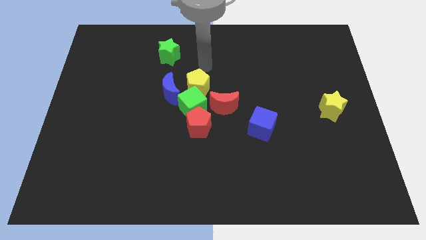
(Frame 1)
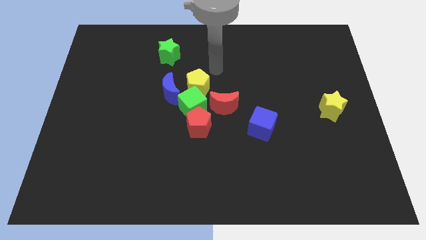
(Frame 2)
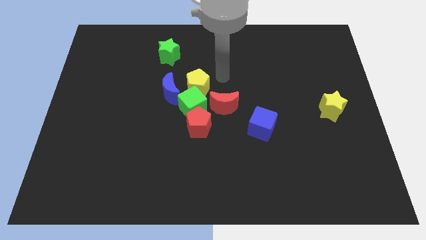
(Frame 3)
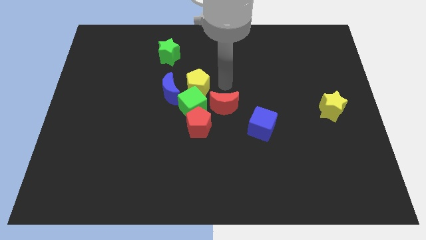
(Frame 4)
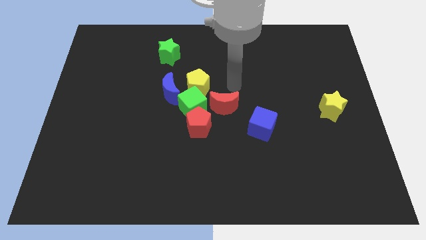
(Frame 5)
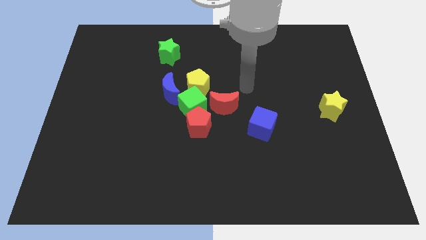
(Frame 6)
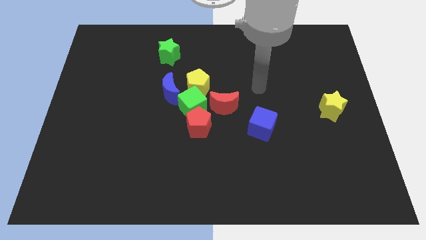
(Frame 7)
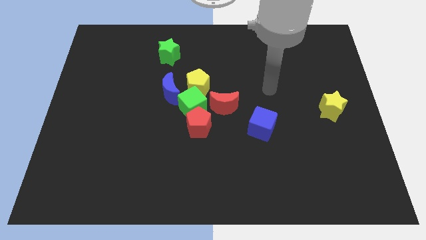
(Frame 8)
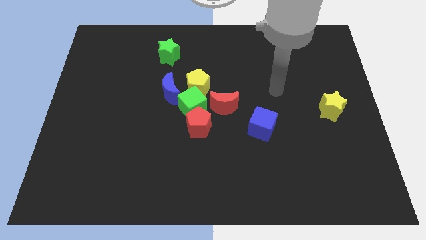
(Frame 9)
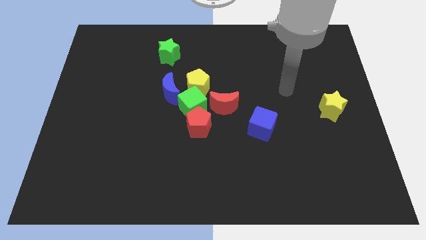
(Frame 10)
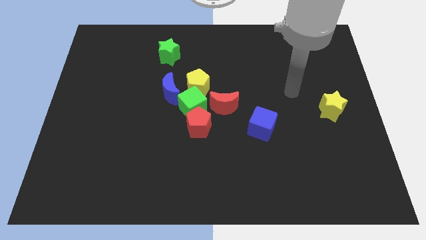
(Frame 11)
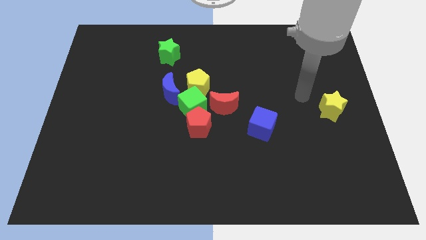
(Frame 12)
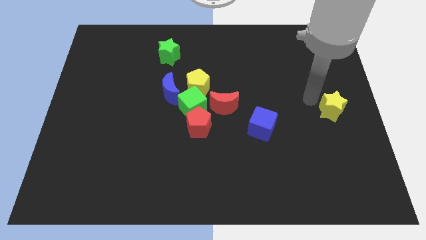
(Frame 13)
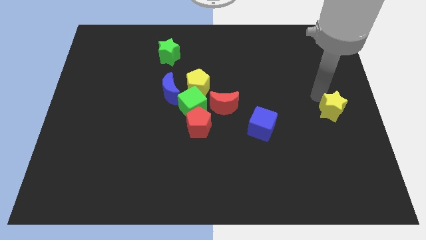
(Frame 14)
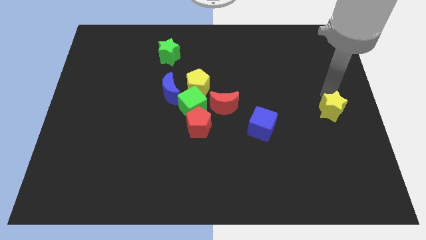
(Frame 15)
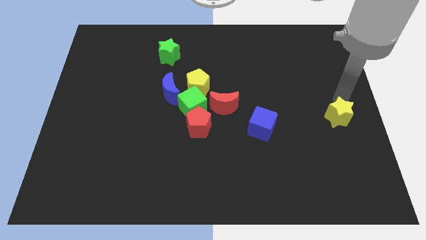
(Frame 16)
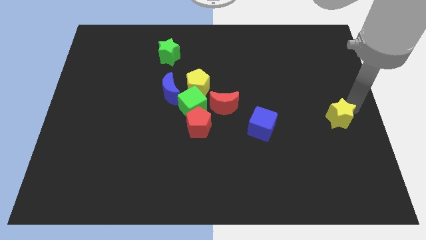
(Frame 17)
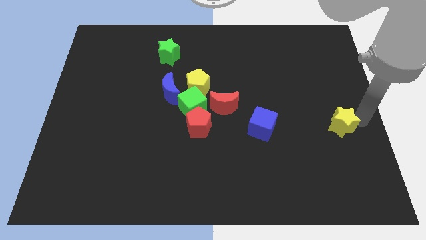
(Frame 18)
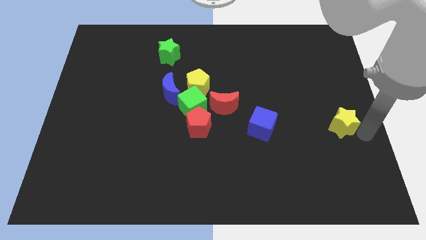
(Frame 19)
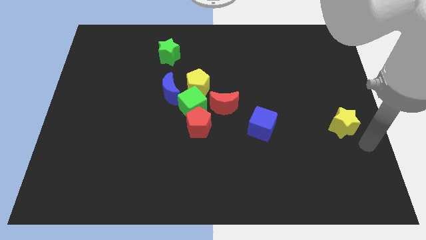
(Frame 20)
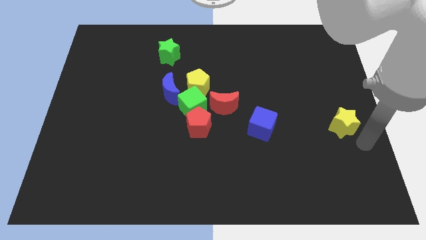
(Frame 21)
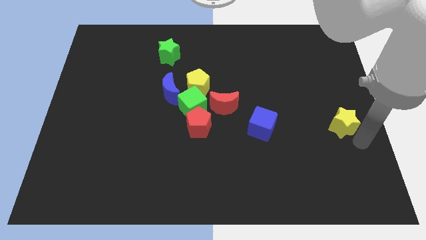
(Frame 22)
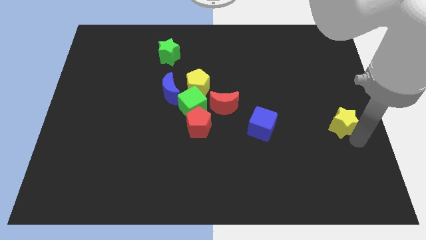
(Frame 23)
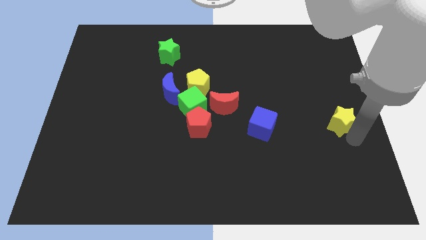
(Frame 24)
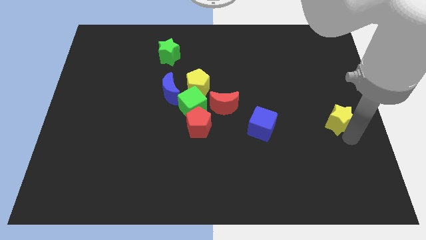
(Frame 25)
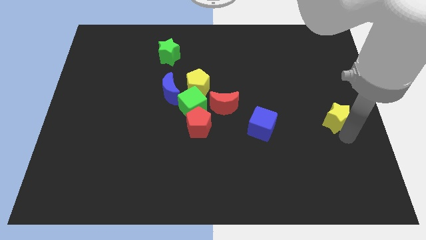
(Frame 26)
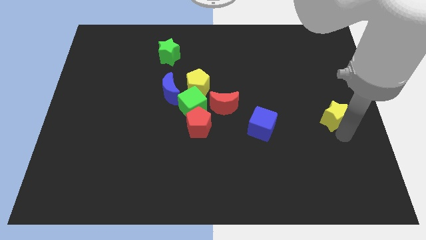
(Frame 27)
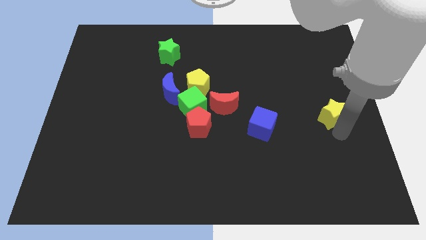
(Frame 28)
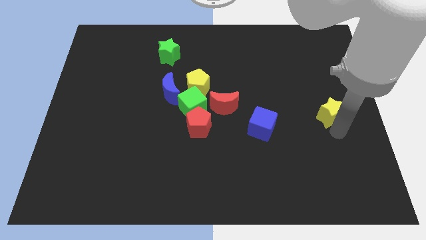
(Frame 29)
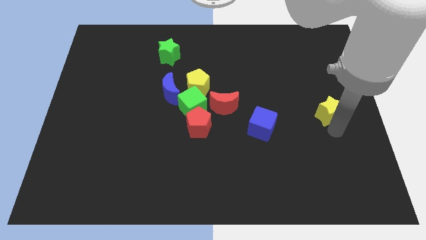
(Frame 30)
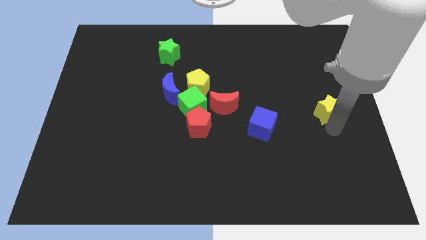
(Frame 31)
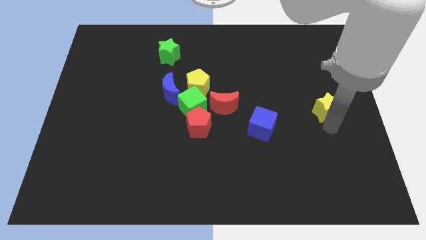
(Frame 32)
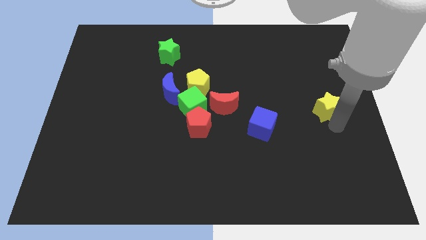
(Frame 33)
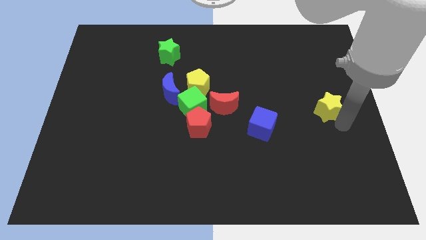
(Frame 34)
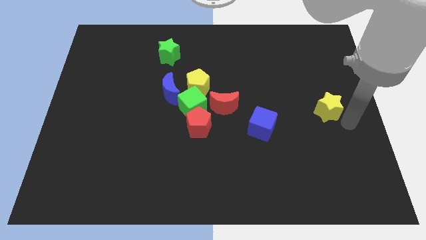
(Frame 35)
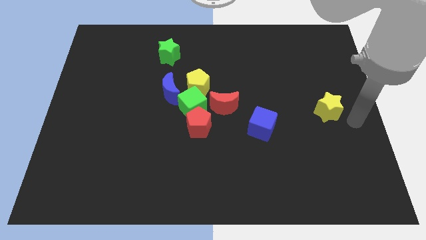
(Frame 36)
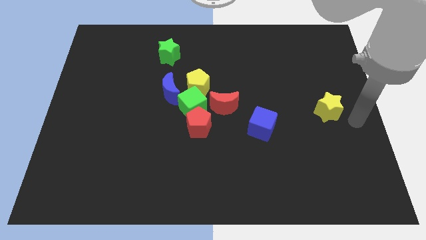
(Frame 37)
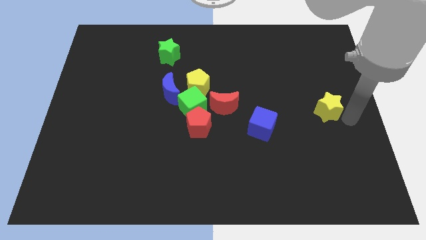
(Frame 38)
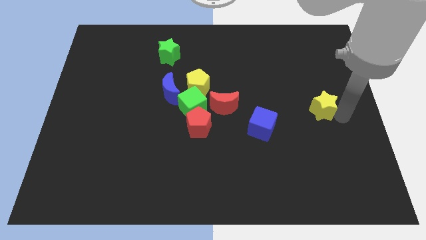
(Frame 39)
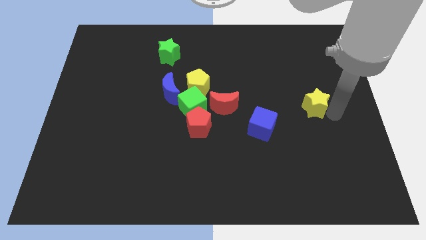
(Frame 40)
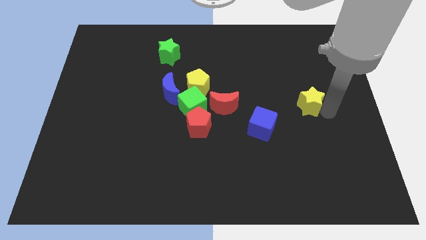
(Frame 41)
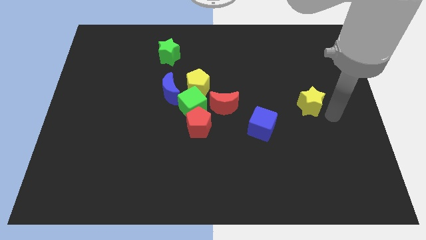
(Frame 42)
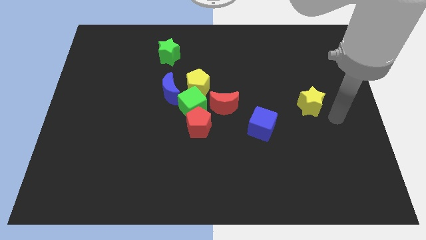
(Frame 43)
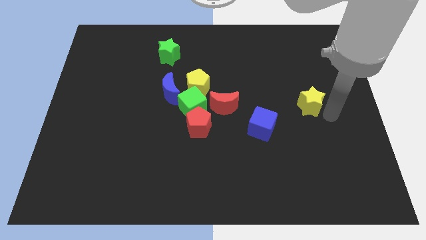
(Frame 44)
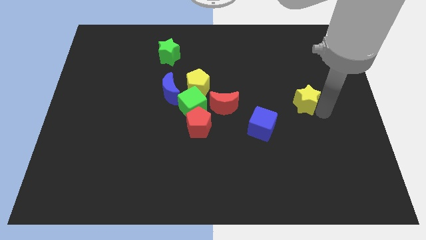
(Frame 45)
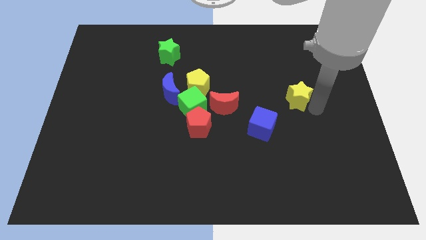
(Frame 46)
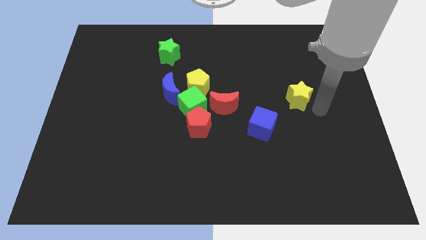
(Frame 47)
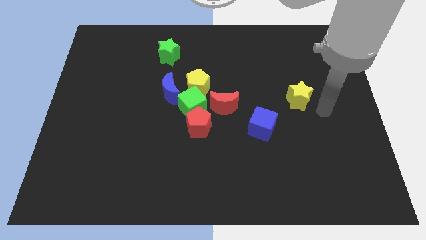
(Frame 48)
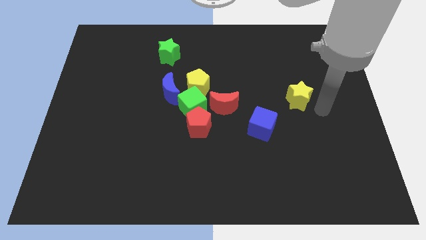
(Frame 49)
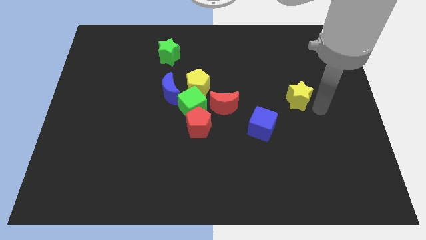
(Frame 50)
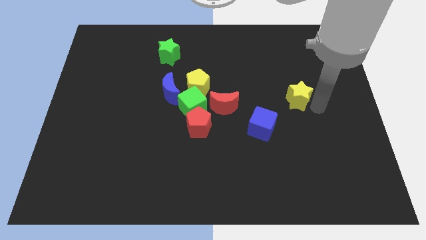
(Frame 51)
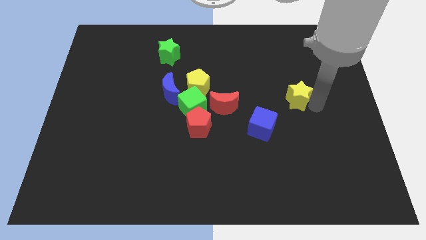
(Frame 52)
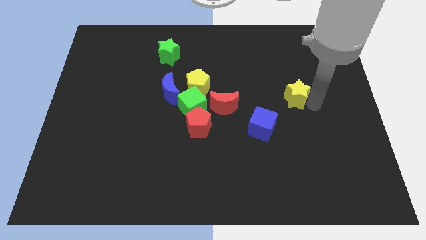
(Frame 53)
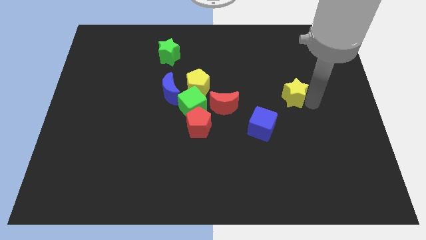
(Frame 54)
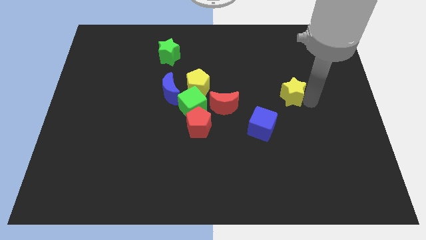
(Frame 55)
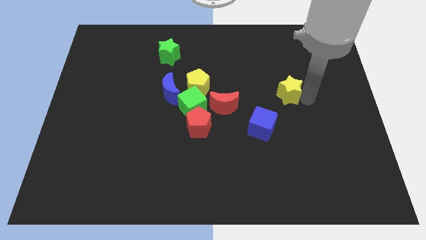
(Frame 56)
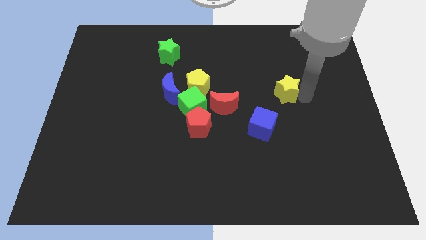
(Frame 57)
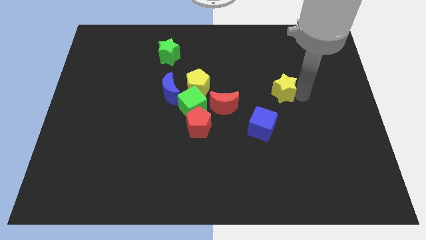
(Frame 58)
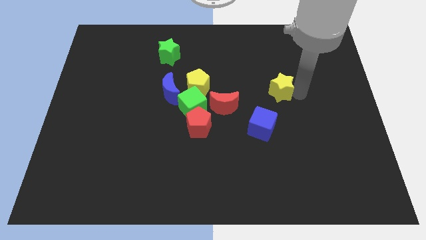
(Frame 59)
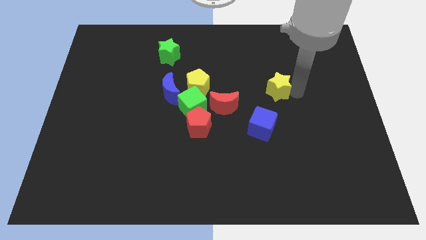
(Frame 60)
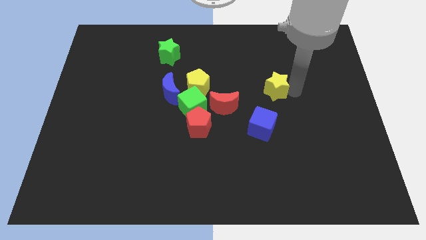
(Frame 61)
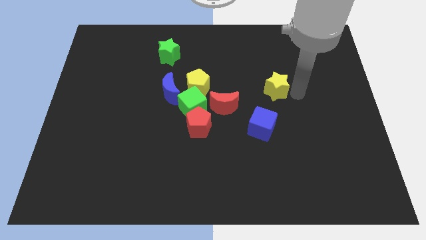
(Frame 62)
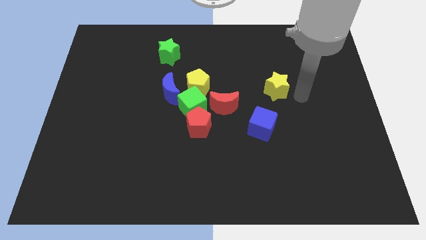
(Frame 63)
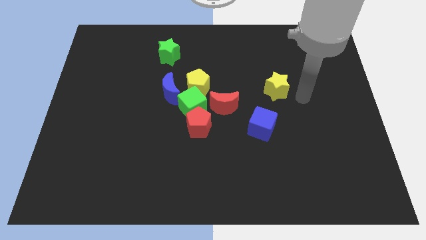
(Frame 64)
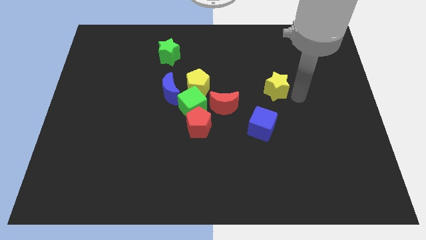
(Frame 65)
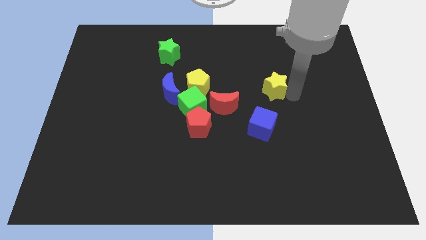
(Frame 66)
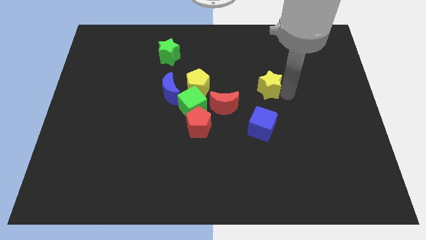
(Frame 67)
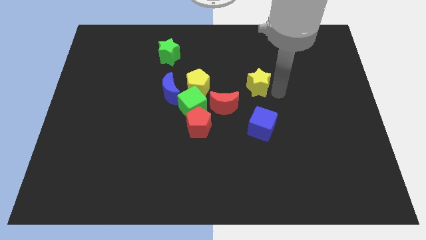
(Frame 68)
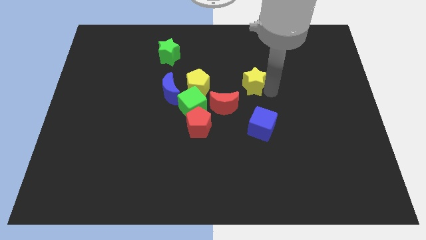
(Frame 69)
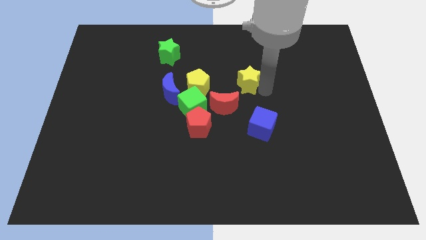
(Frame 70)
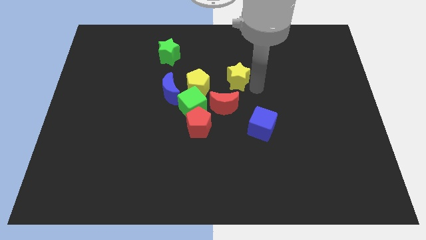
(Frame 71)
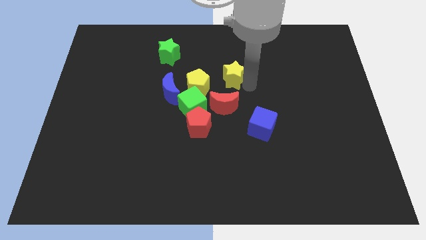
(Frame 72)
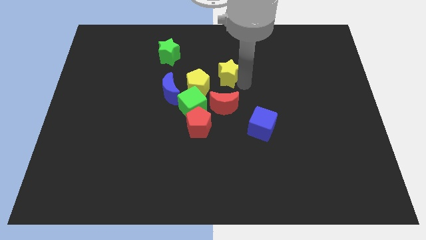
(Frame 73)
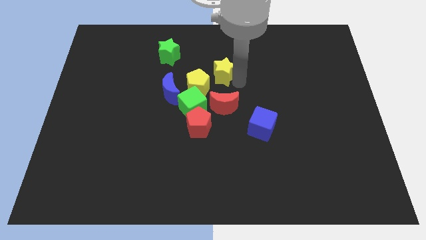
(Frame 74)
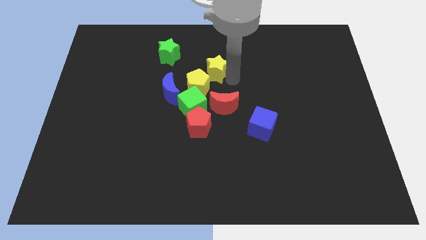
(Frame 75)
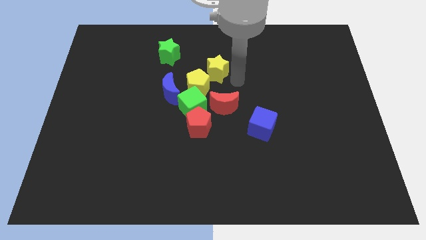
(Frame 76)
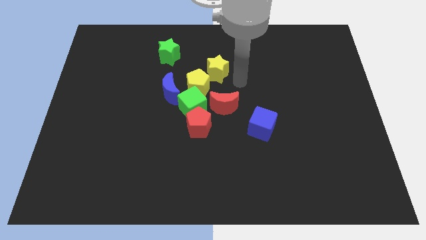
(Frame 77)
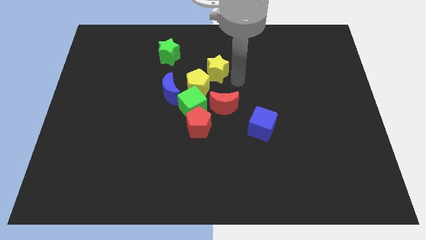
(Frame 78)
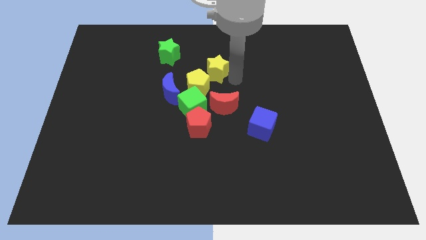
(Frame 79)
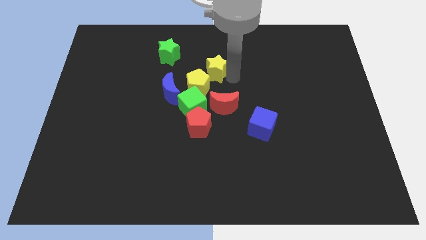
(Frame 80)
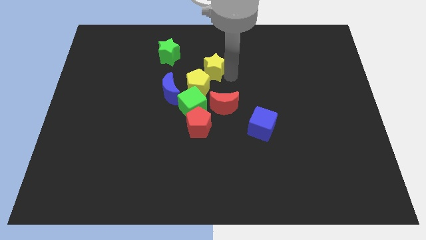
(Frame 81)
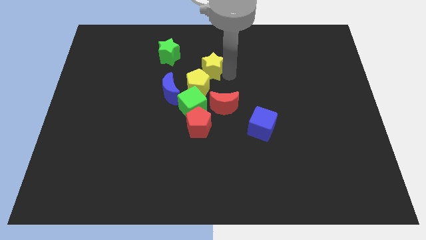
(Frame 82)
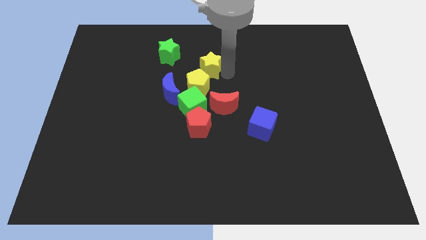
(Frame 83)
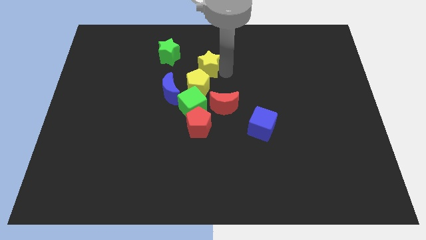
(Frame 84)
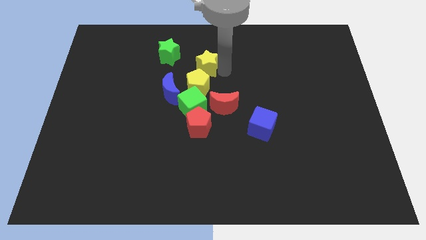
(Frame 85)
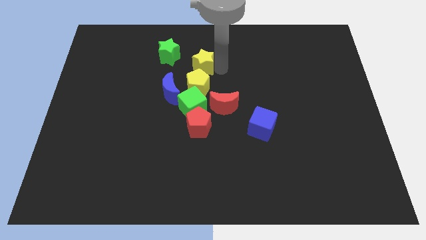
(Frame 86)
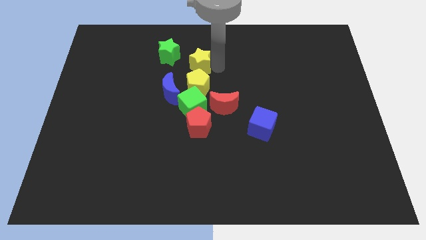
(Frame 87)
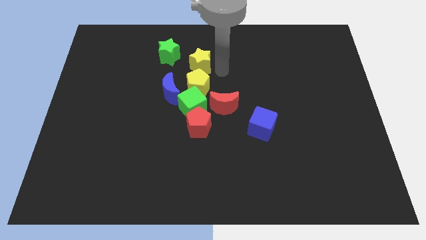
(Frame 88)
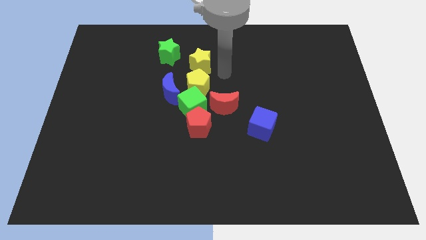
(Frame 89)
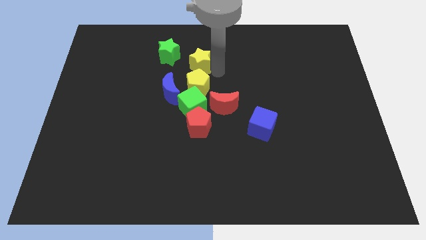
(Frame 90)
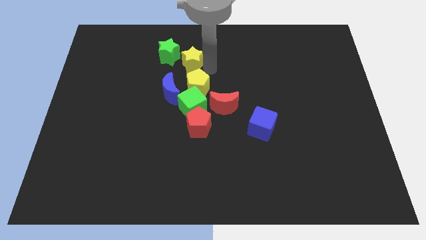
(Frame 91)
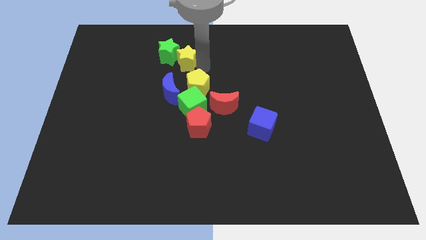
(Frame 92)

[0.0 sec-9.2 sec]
slide the yellow star next to the green star
